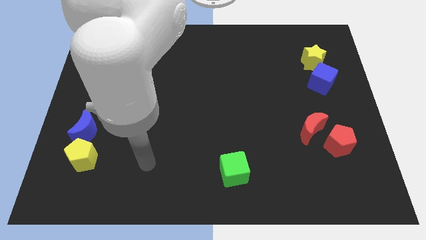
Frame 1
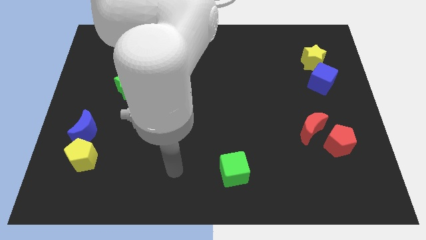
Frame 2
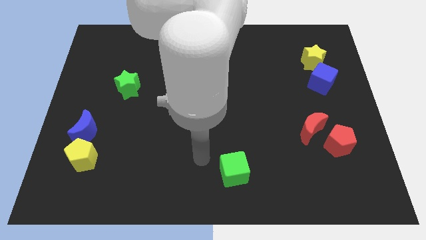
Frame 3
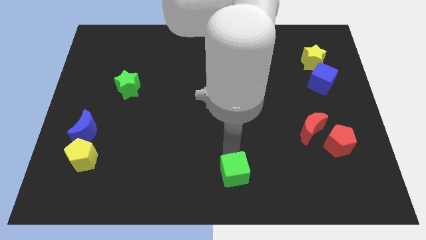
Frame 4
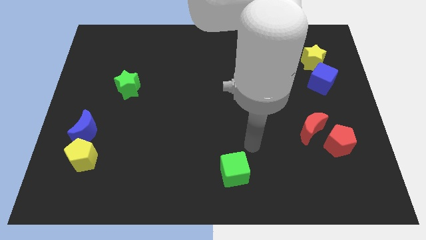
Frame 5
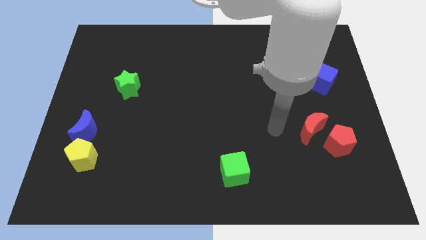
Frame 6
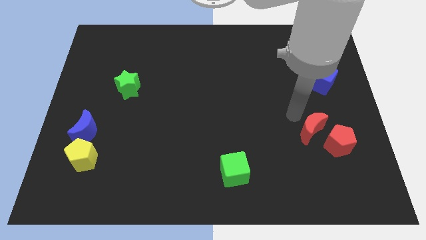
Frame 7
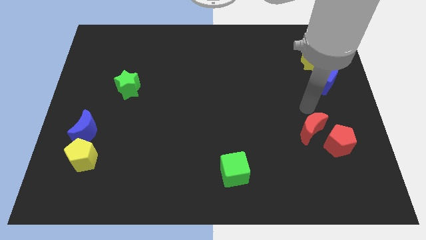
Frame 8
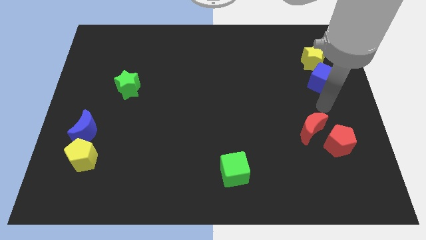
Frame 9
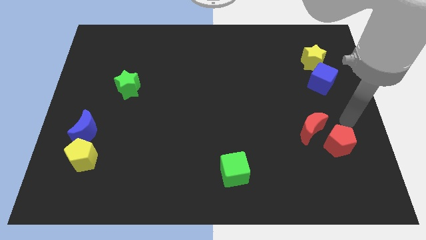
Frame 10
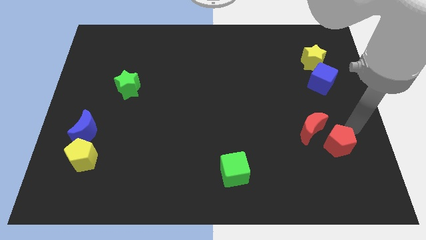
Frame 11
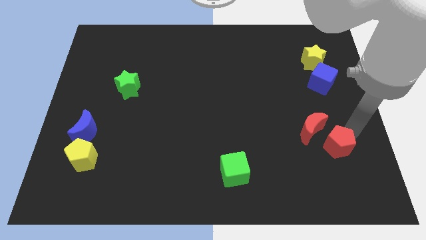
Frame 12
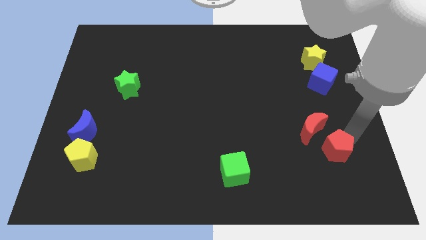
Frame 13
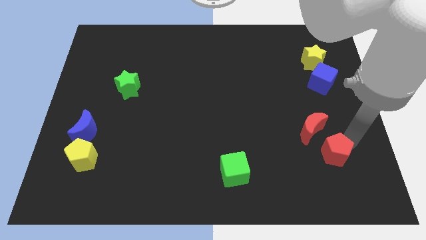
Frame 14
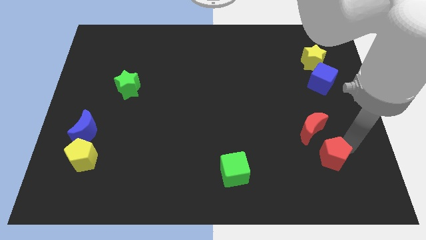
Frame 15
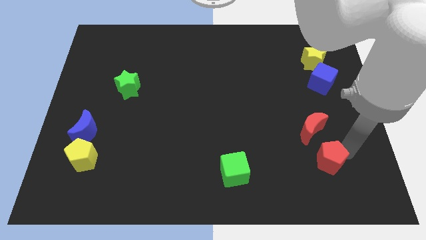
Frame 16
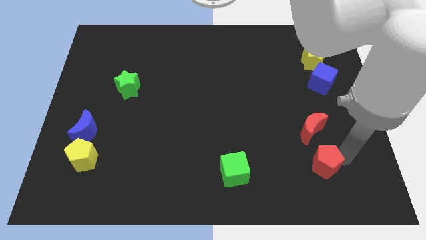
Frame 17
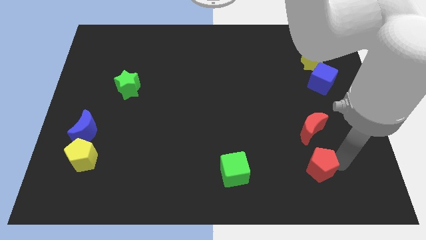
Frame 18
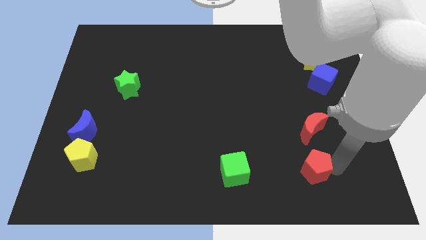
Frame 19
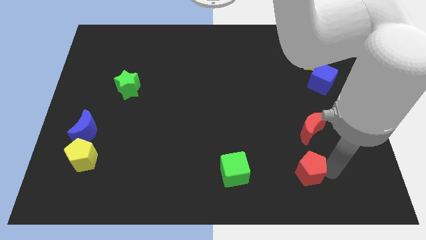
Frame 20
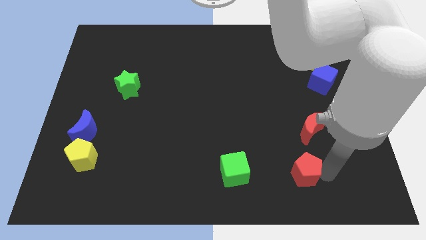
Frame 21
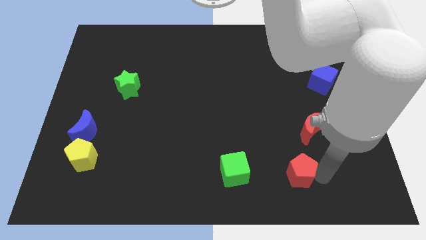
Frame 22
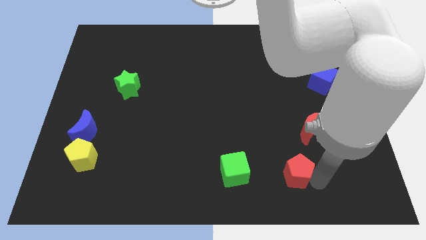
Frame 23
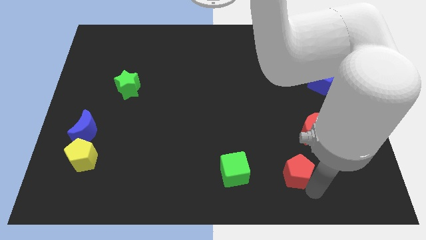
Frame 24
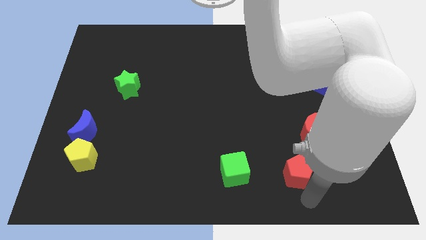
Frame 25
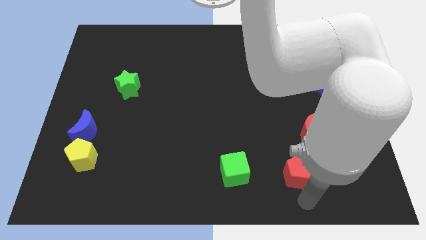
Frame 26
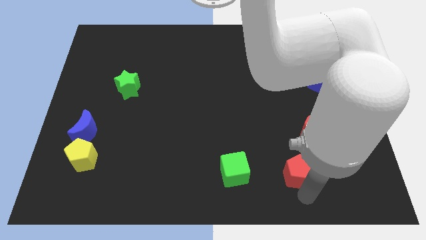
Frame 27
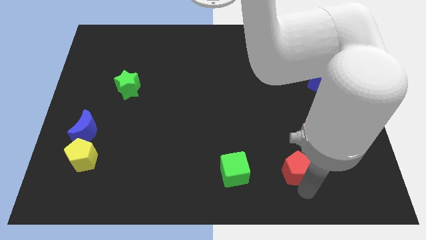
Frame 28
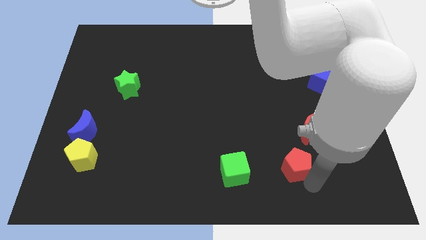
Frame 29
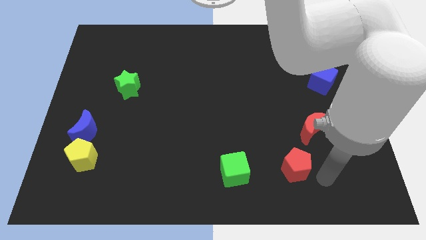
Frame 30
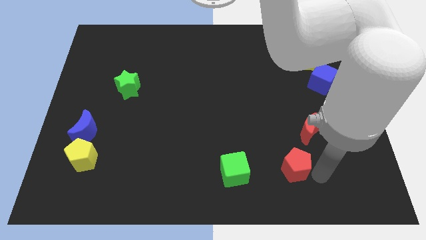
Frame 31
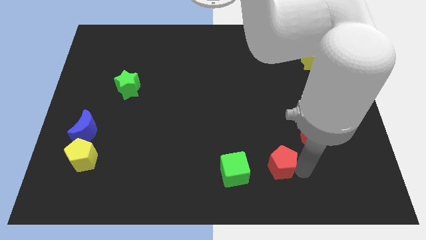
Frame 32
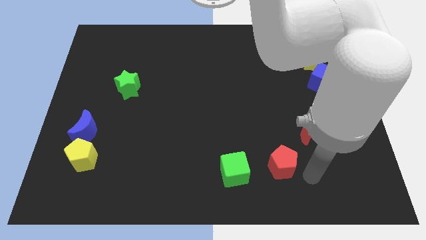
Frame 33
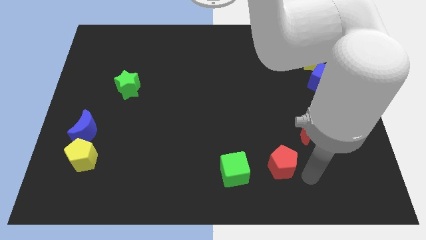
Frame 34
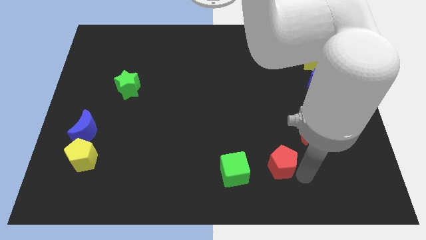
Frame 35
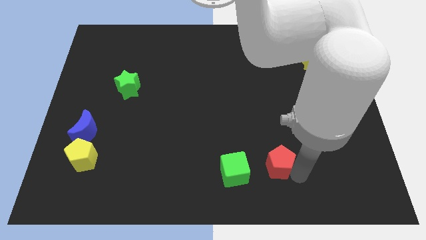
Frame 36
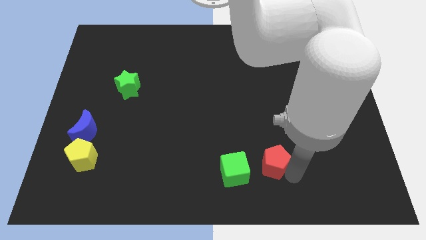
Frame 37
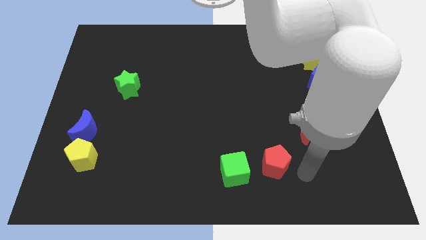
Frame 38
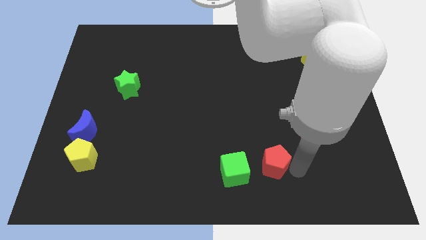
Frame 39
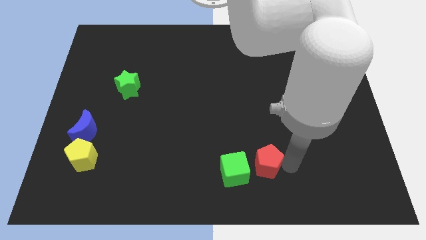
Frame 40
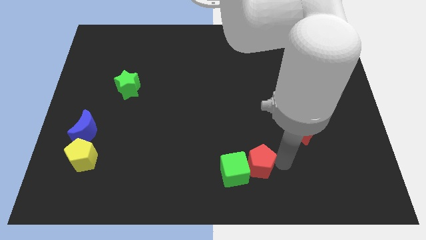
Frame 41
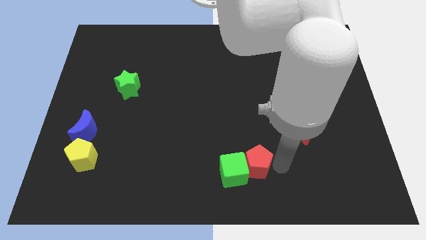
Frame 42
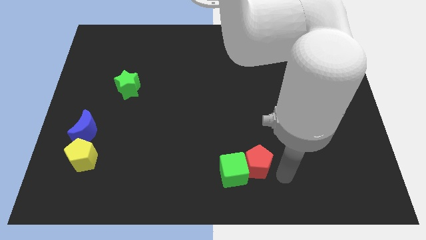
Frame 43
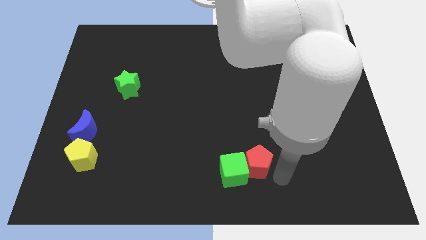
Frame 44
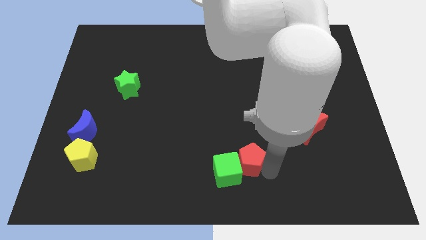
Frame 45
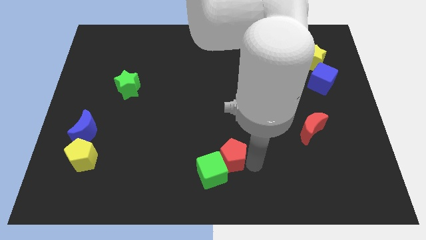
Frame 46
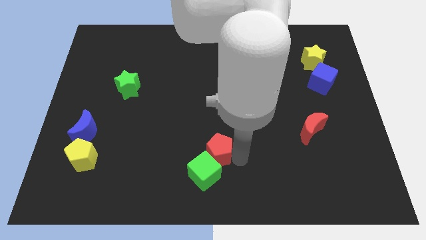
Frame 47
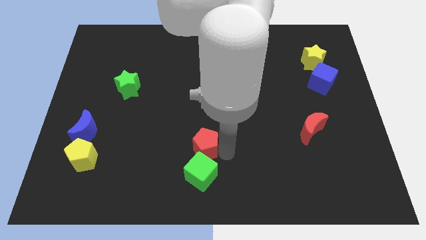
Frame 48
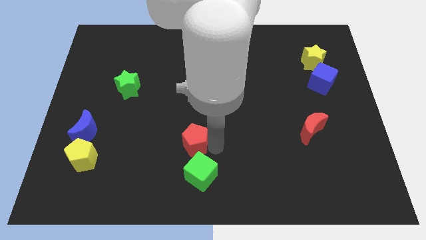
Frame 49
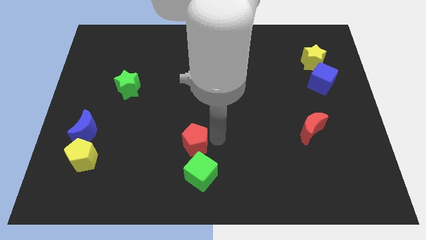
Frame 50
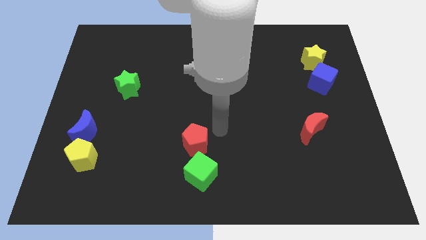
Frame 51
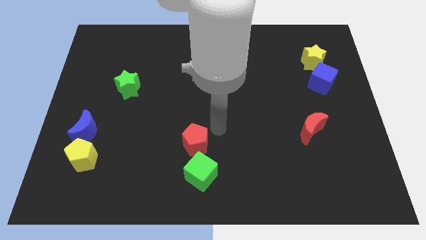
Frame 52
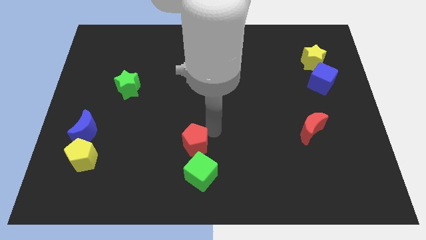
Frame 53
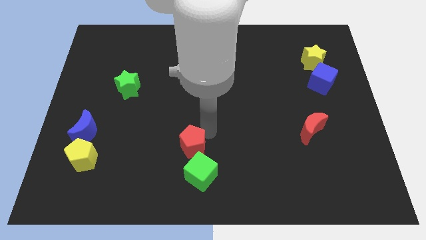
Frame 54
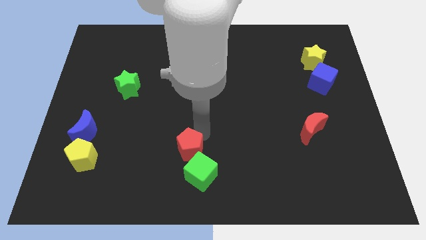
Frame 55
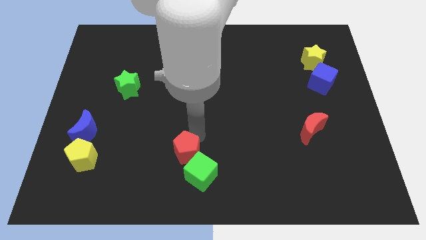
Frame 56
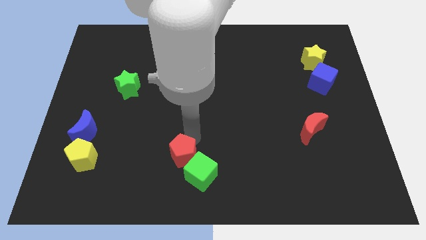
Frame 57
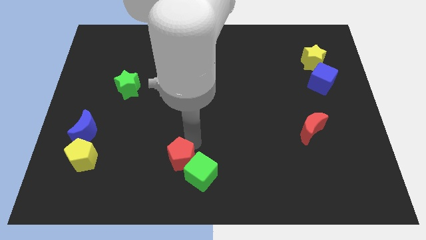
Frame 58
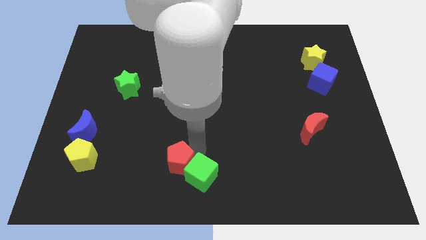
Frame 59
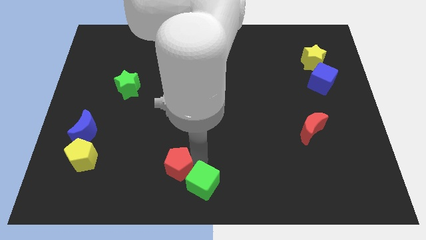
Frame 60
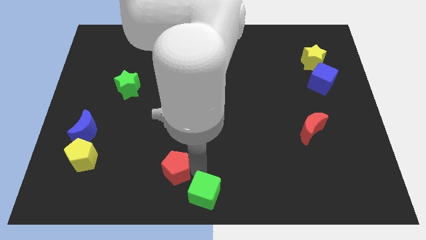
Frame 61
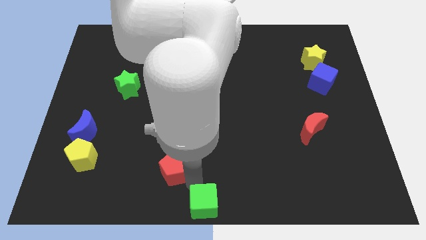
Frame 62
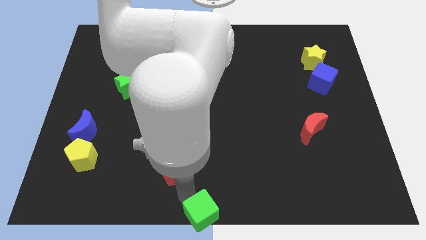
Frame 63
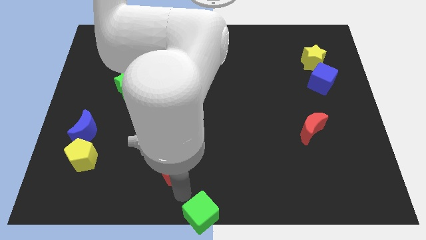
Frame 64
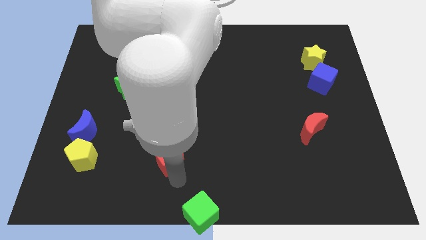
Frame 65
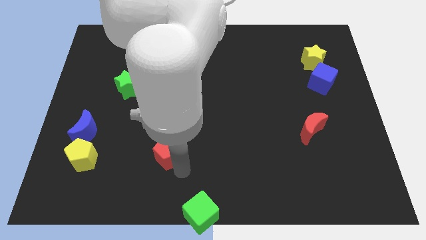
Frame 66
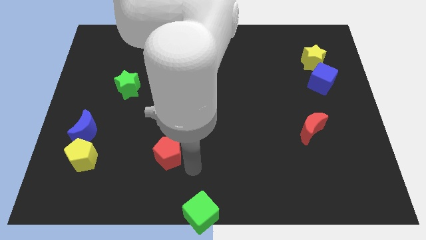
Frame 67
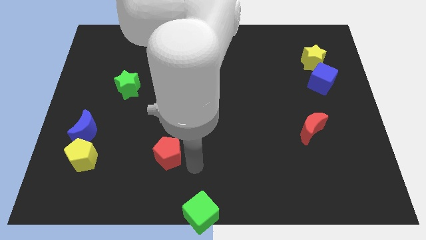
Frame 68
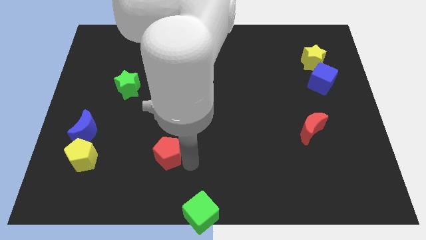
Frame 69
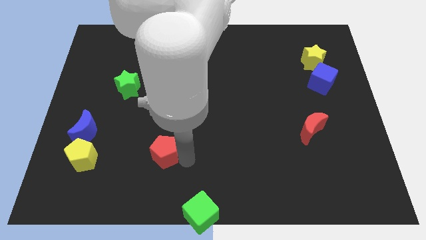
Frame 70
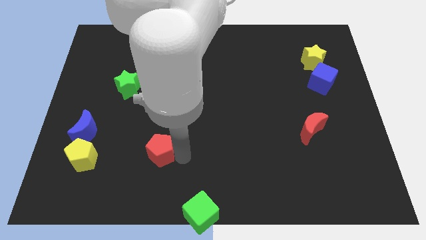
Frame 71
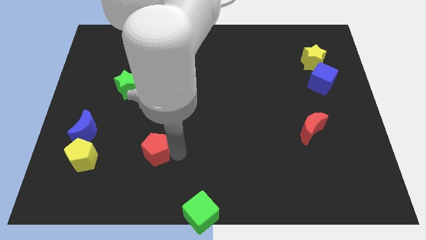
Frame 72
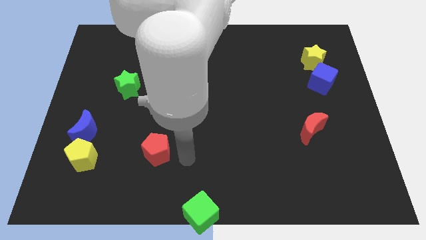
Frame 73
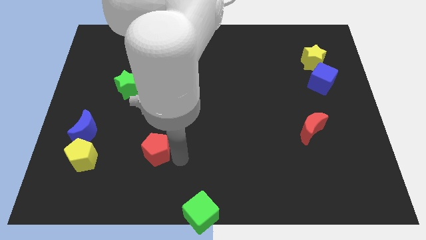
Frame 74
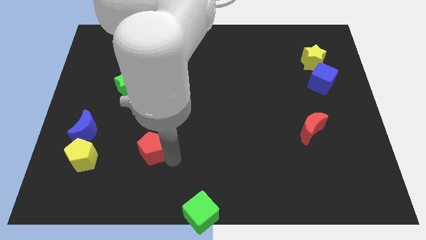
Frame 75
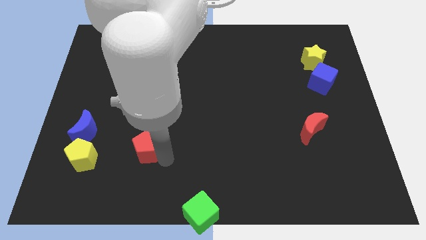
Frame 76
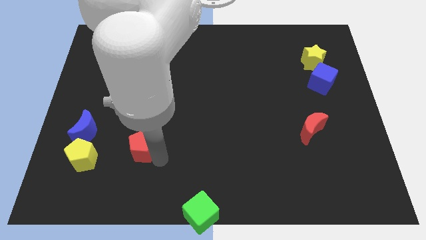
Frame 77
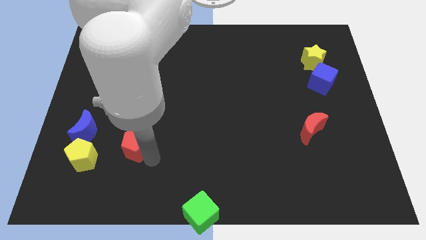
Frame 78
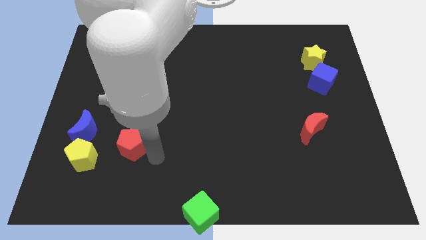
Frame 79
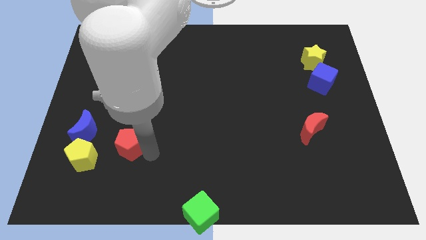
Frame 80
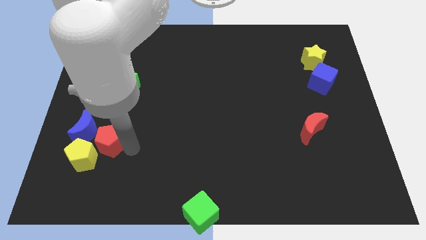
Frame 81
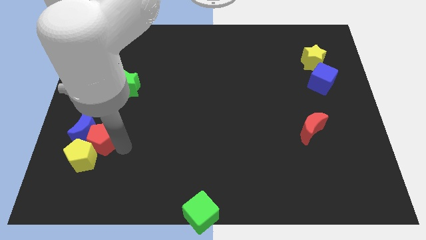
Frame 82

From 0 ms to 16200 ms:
move the red pentagon close to the blue moon
